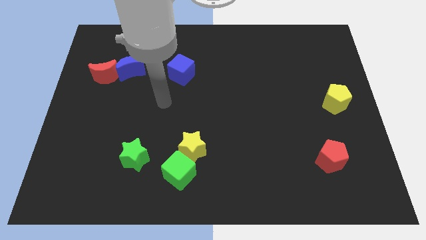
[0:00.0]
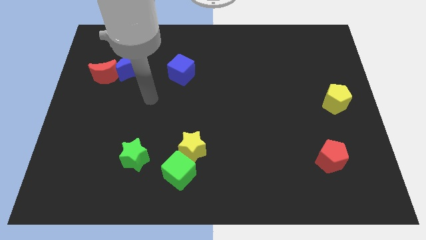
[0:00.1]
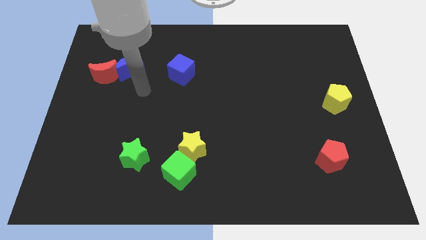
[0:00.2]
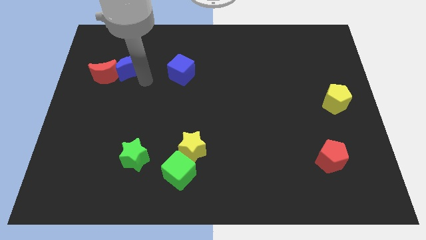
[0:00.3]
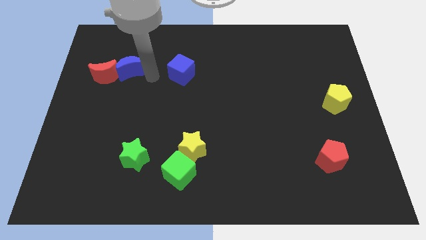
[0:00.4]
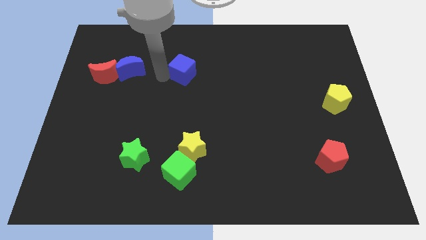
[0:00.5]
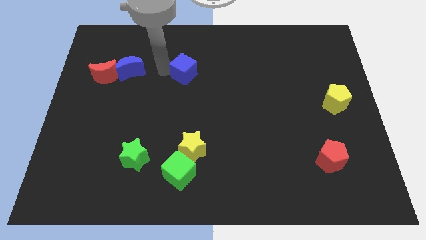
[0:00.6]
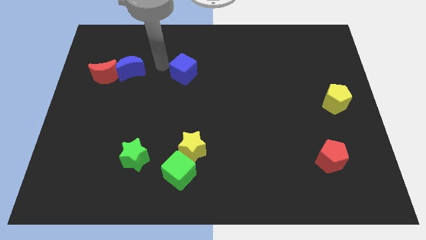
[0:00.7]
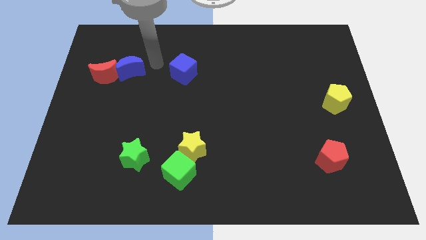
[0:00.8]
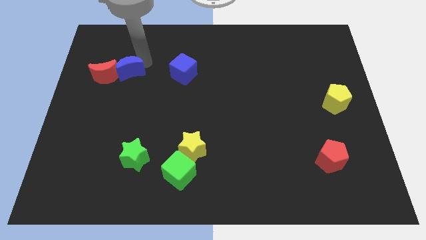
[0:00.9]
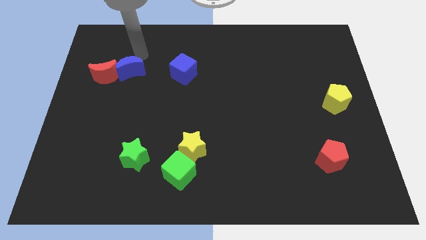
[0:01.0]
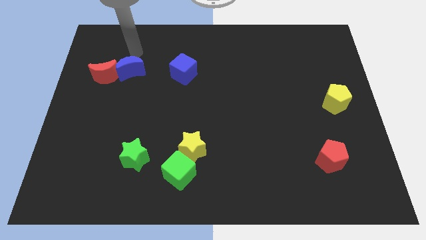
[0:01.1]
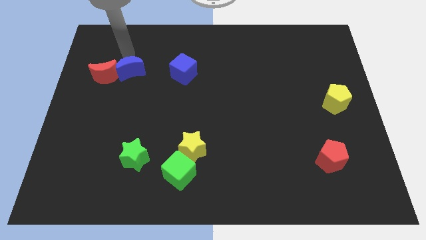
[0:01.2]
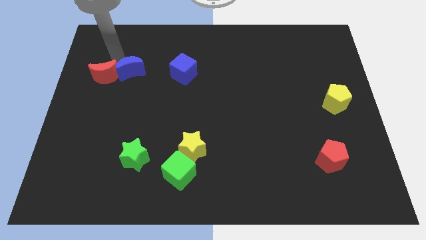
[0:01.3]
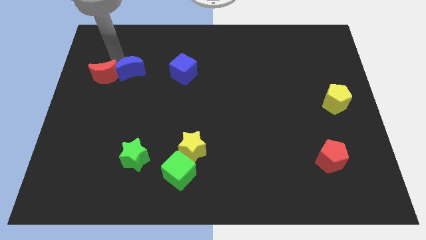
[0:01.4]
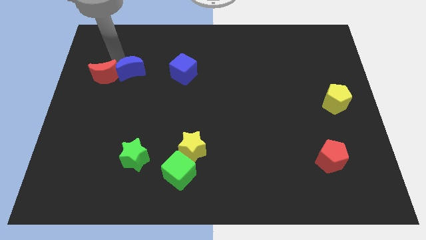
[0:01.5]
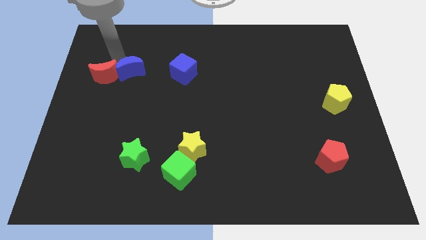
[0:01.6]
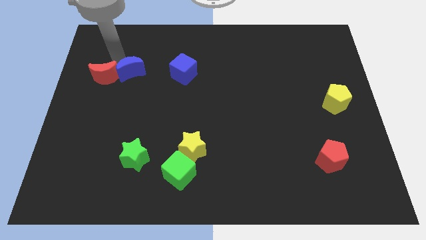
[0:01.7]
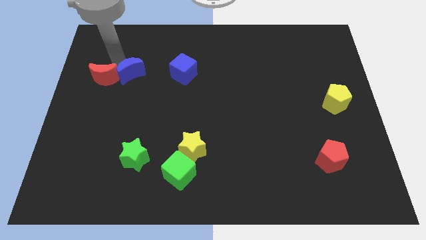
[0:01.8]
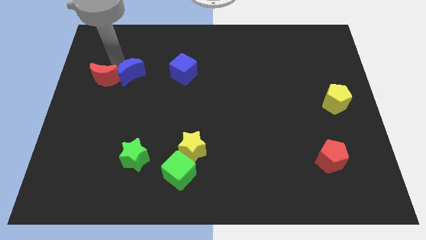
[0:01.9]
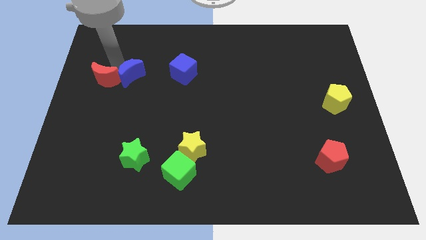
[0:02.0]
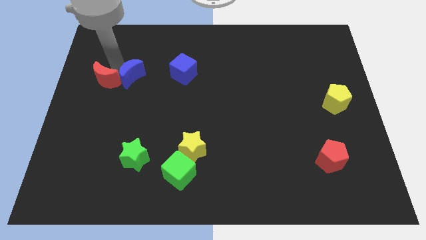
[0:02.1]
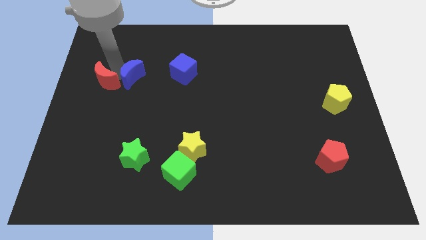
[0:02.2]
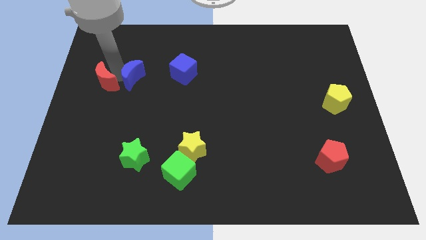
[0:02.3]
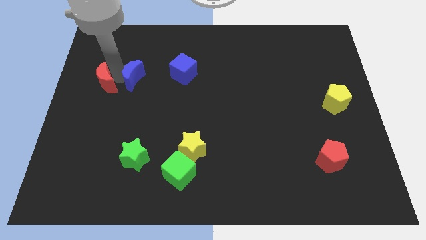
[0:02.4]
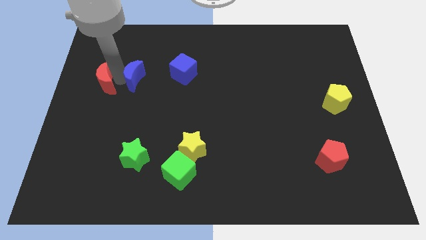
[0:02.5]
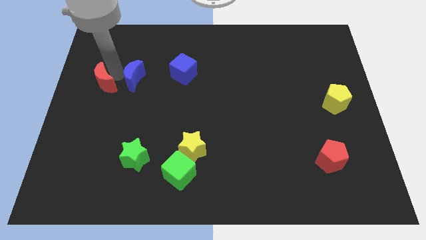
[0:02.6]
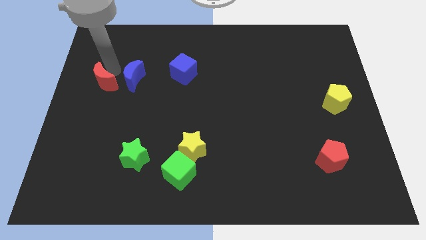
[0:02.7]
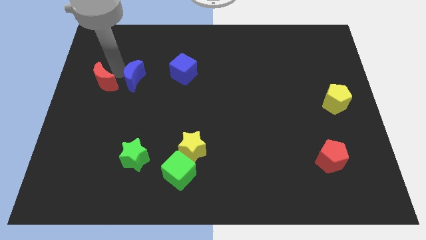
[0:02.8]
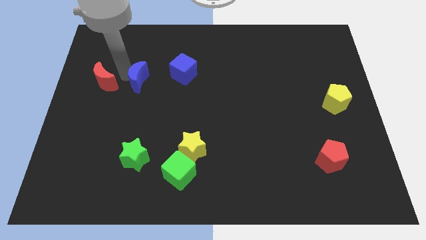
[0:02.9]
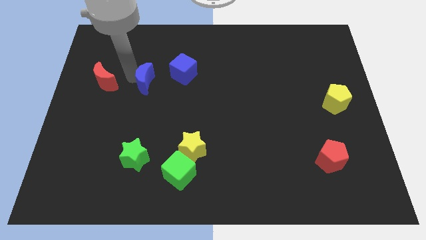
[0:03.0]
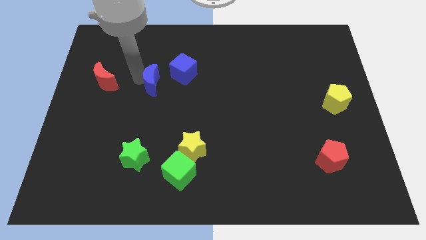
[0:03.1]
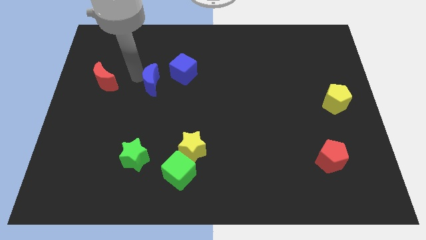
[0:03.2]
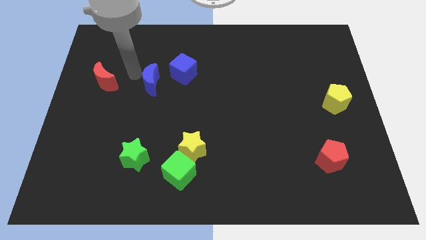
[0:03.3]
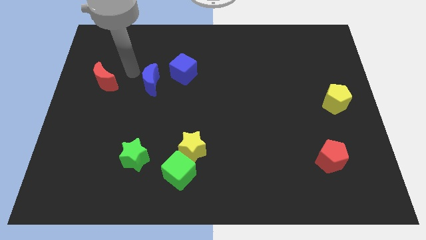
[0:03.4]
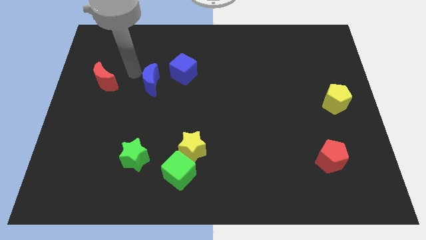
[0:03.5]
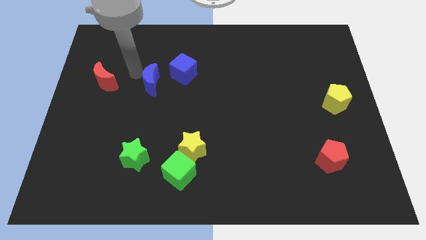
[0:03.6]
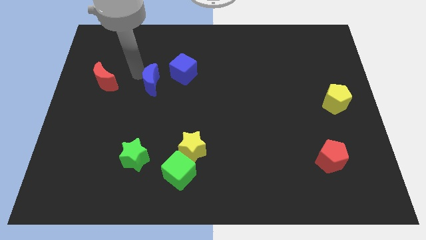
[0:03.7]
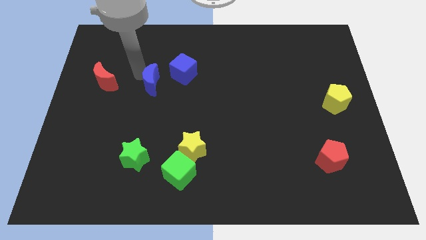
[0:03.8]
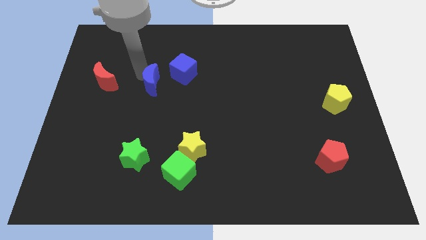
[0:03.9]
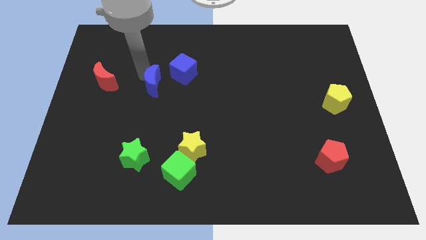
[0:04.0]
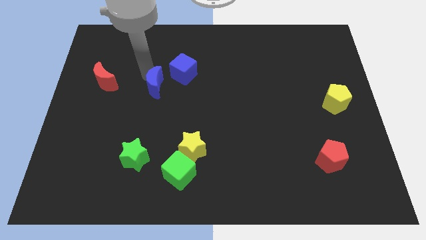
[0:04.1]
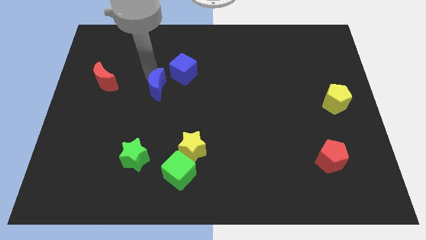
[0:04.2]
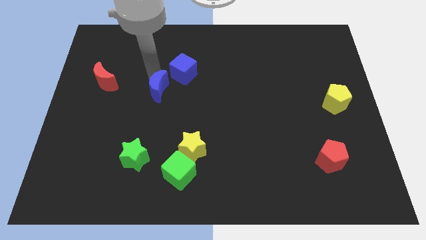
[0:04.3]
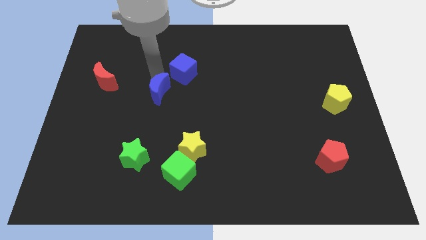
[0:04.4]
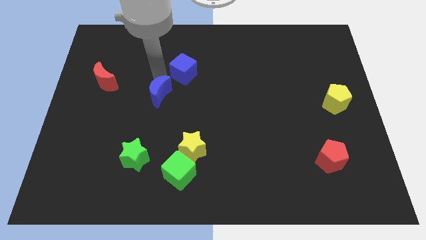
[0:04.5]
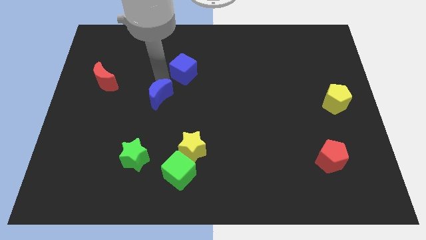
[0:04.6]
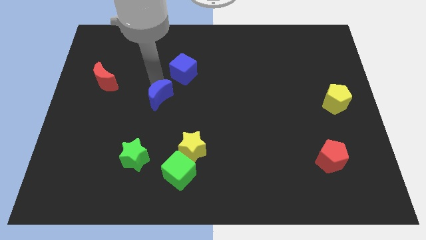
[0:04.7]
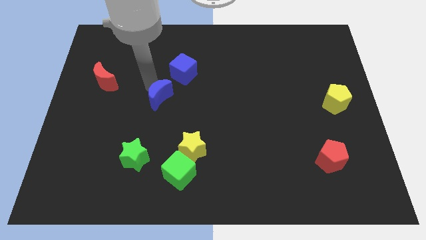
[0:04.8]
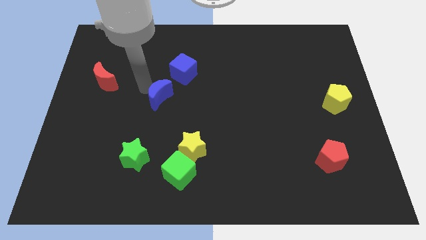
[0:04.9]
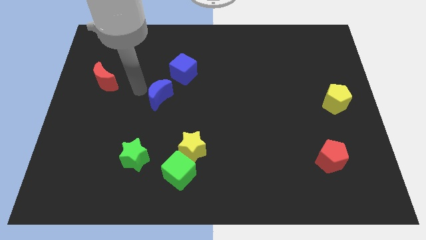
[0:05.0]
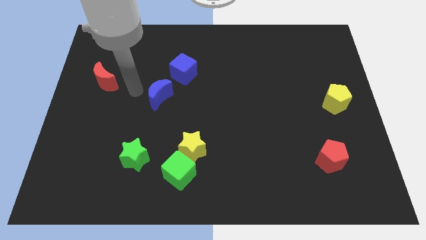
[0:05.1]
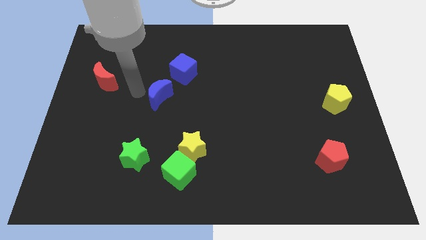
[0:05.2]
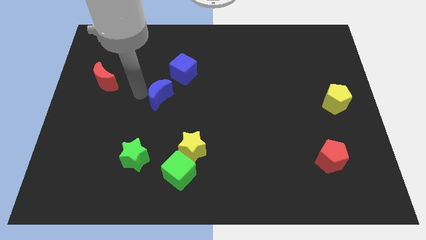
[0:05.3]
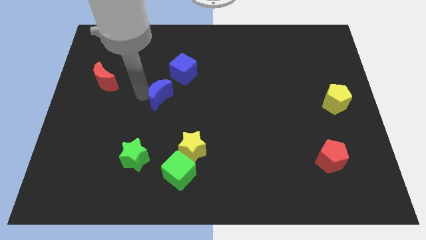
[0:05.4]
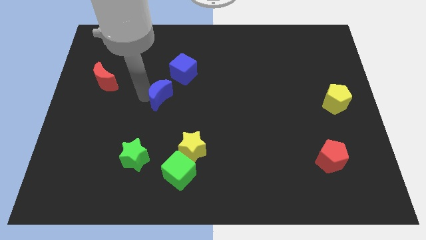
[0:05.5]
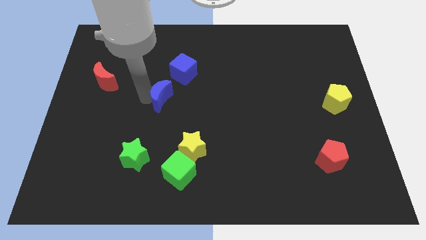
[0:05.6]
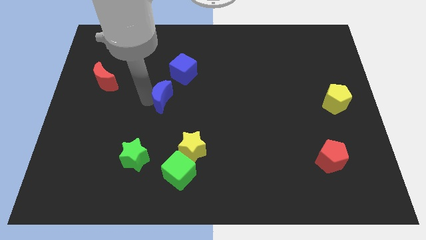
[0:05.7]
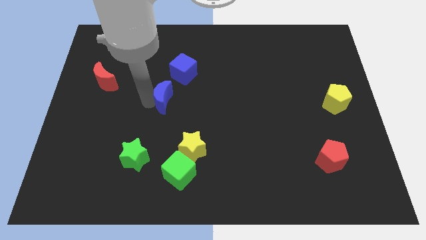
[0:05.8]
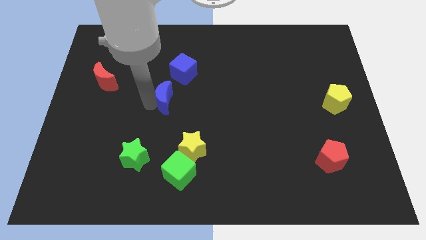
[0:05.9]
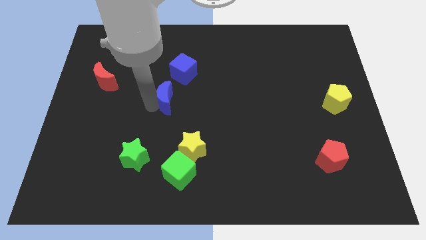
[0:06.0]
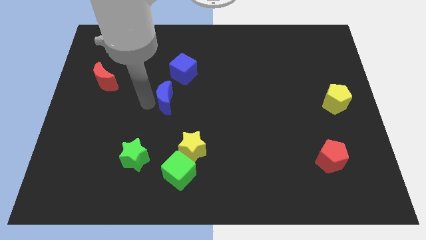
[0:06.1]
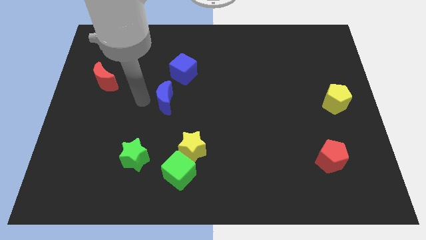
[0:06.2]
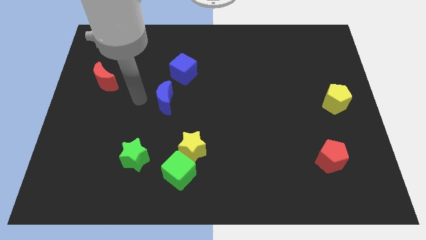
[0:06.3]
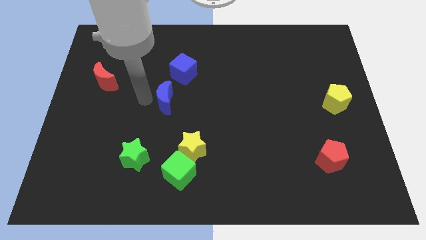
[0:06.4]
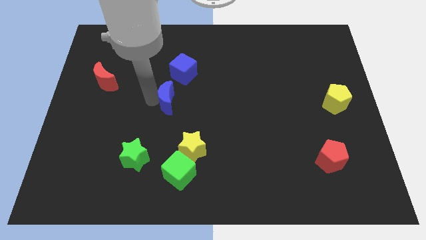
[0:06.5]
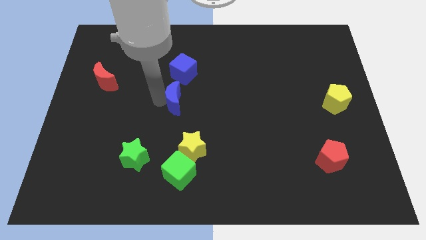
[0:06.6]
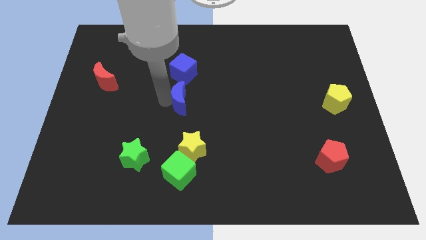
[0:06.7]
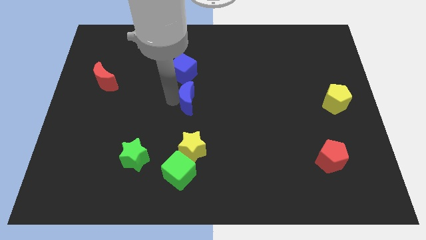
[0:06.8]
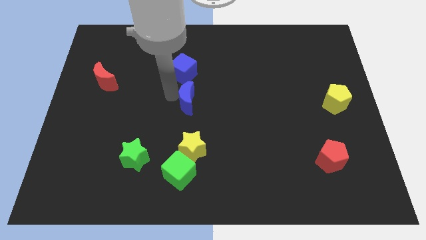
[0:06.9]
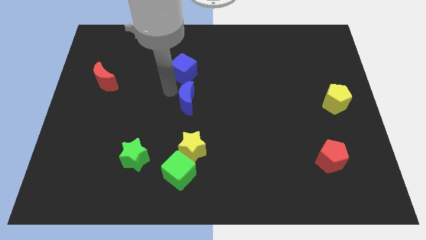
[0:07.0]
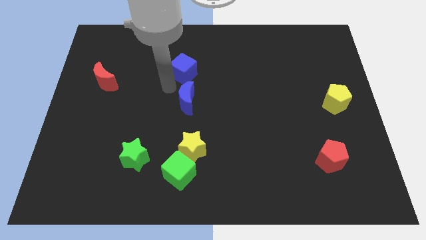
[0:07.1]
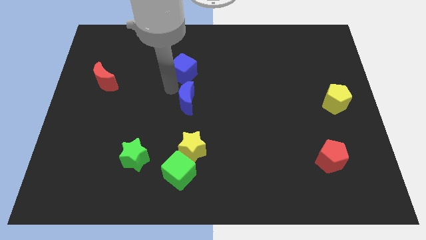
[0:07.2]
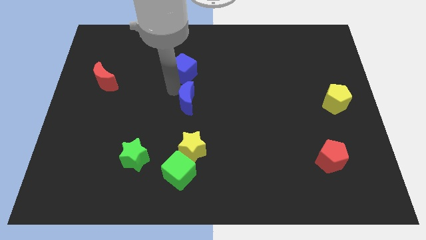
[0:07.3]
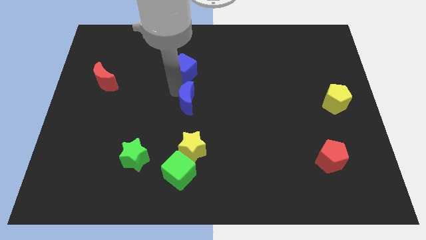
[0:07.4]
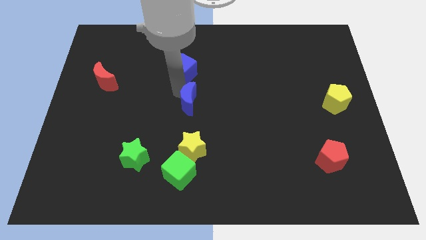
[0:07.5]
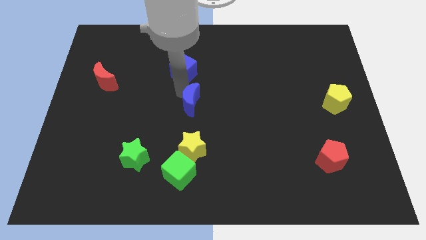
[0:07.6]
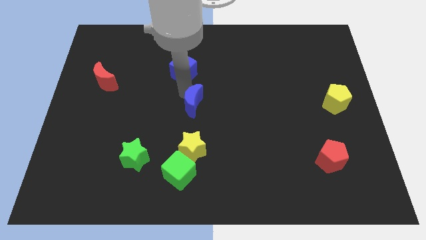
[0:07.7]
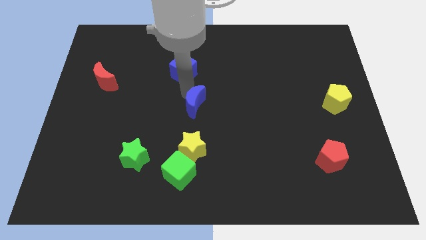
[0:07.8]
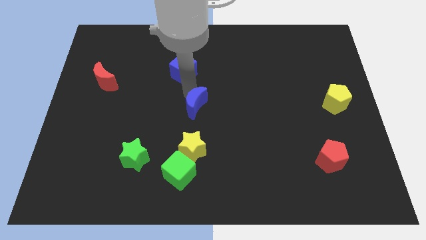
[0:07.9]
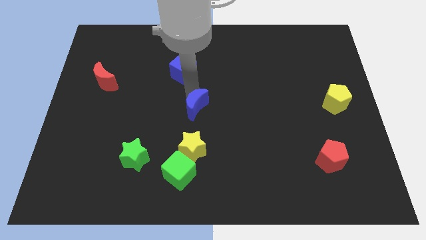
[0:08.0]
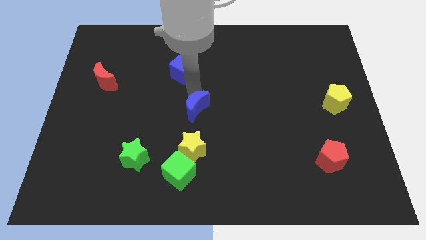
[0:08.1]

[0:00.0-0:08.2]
move the blue moon downwards and right
